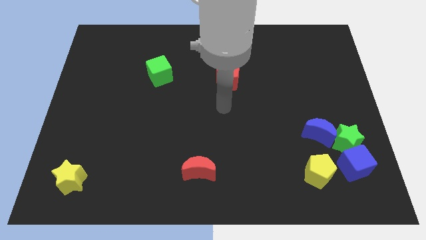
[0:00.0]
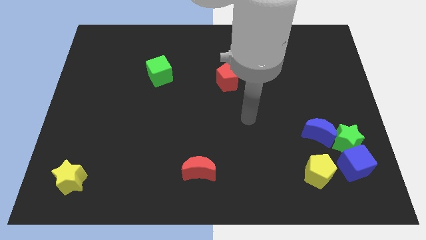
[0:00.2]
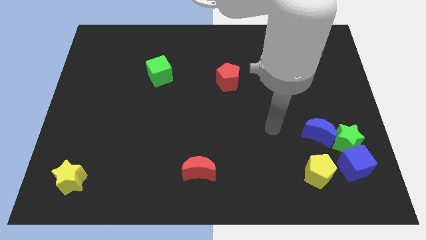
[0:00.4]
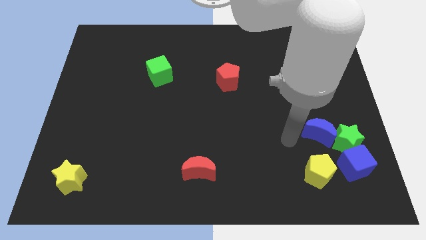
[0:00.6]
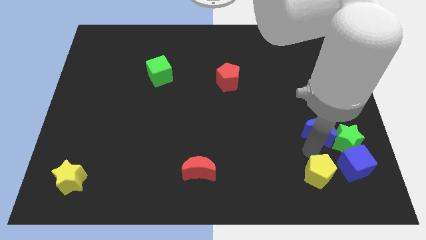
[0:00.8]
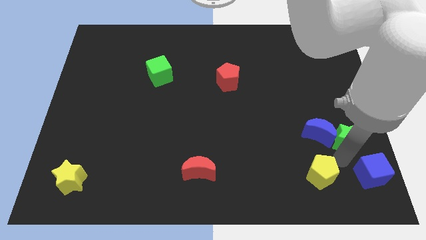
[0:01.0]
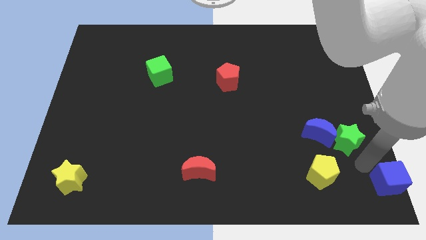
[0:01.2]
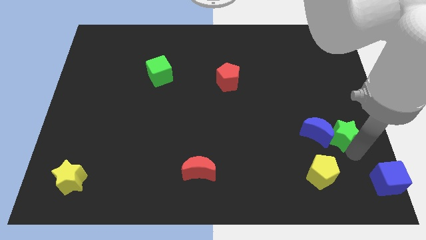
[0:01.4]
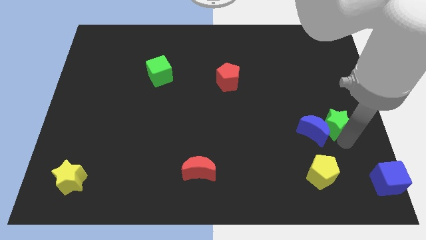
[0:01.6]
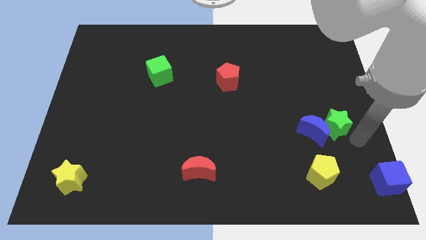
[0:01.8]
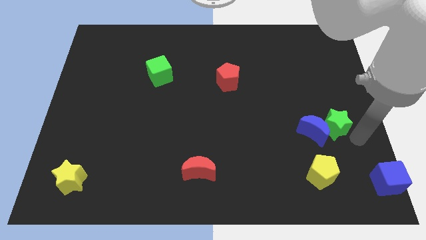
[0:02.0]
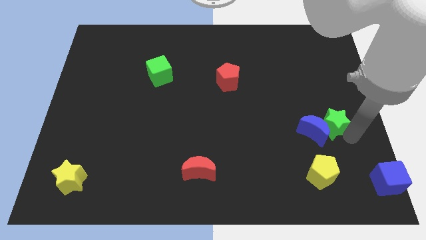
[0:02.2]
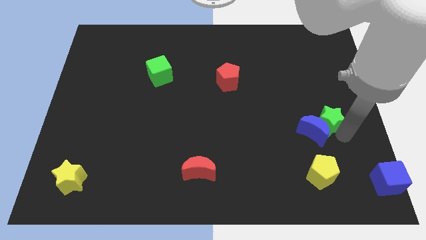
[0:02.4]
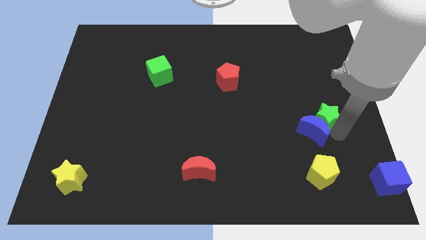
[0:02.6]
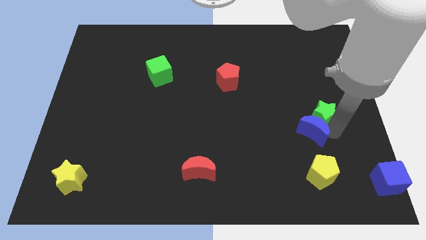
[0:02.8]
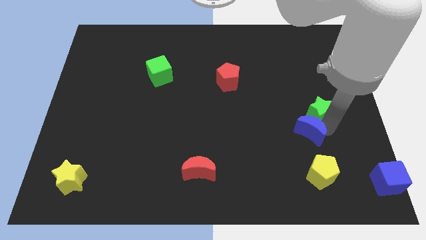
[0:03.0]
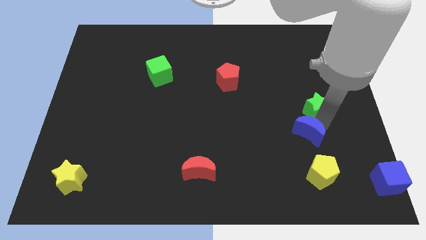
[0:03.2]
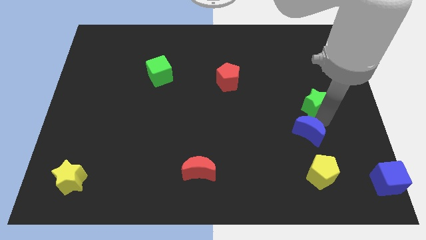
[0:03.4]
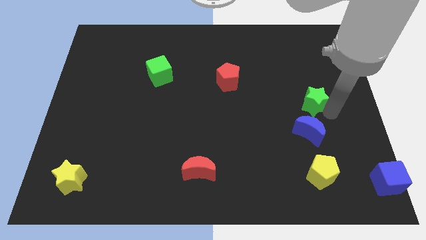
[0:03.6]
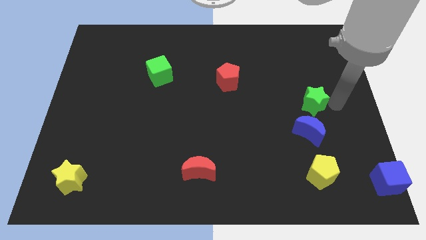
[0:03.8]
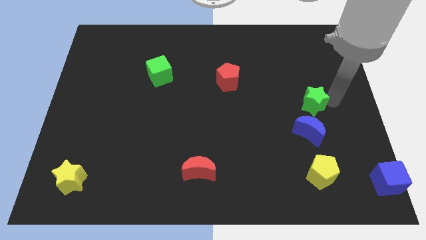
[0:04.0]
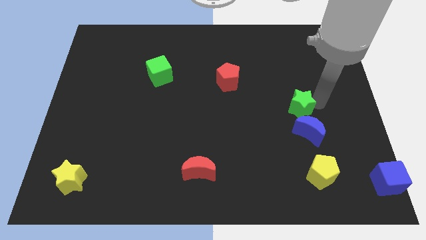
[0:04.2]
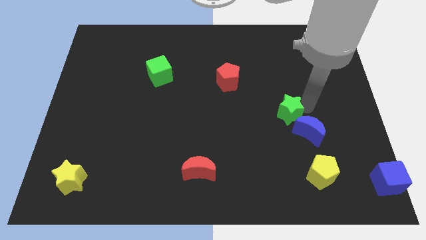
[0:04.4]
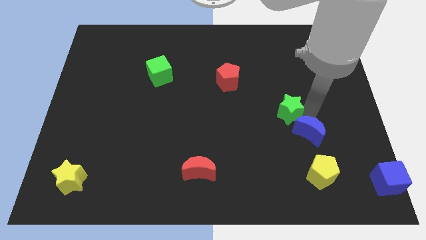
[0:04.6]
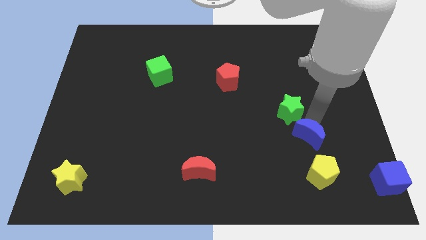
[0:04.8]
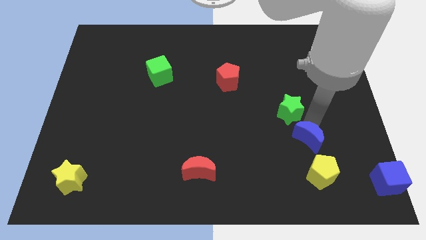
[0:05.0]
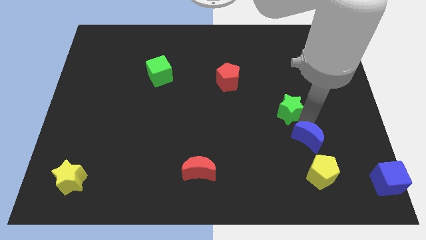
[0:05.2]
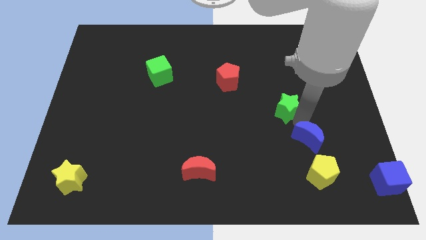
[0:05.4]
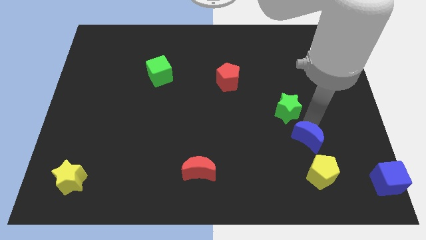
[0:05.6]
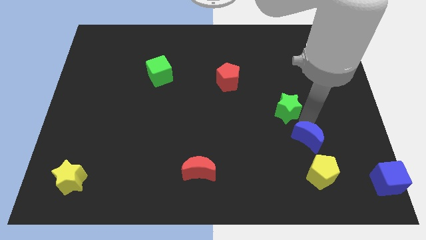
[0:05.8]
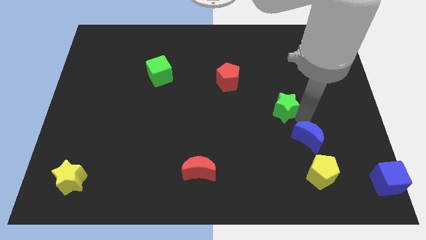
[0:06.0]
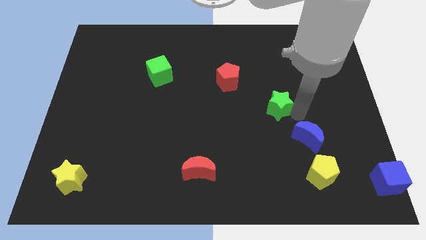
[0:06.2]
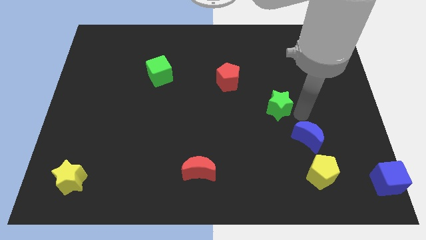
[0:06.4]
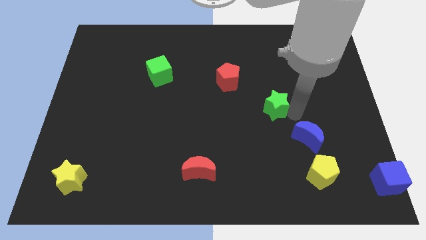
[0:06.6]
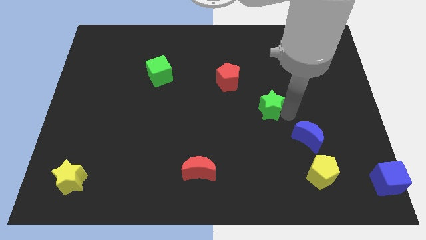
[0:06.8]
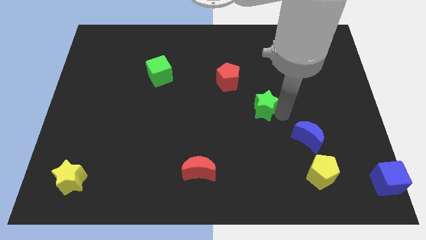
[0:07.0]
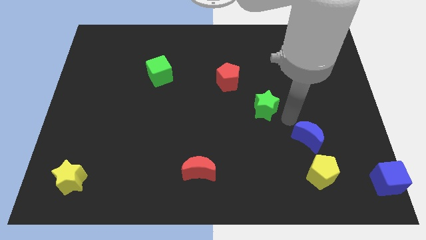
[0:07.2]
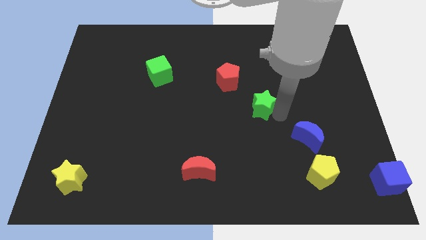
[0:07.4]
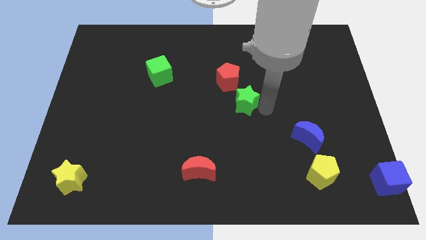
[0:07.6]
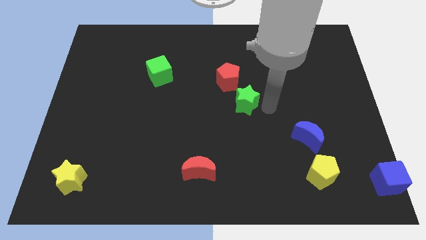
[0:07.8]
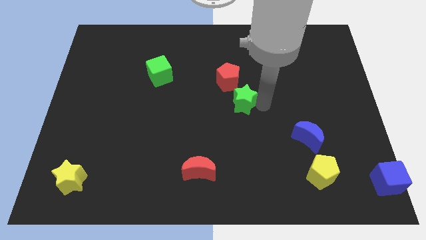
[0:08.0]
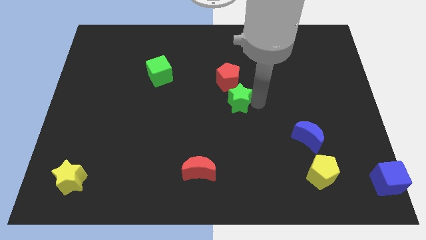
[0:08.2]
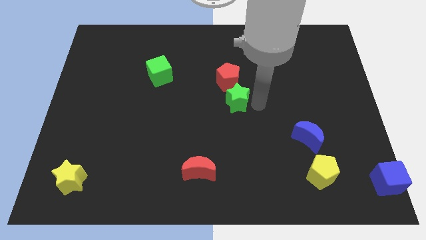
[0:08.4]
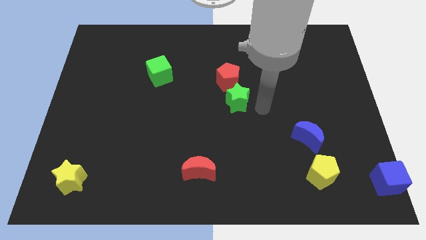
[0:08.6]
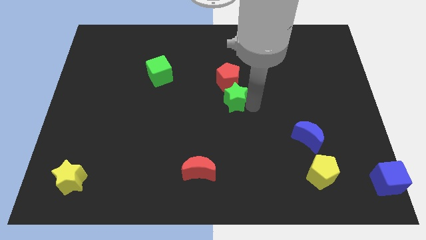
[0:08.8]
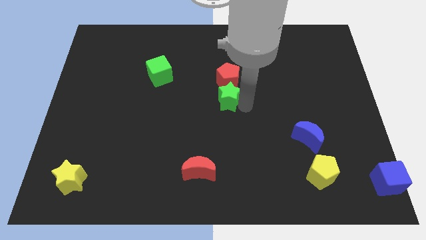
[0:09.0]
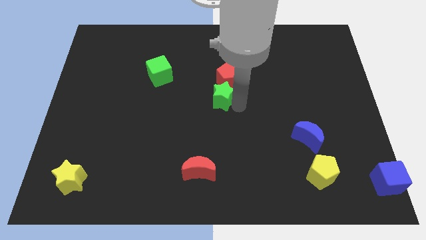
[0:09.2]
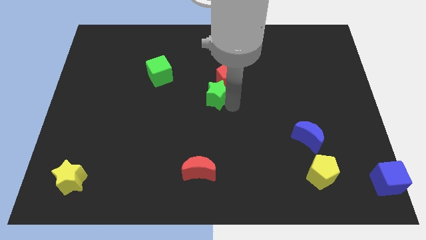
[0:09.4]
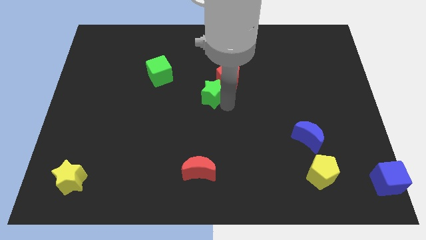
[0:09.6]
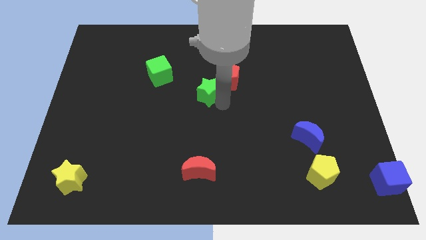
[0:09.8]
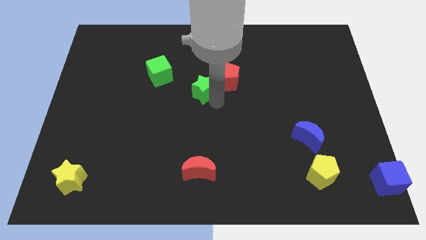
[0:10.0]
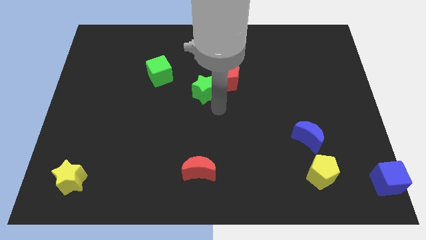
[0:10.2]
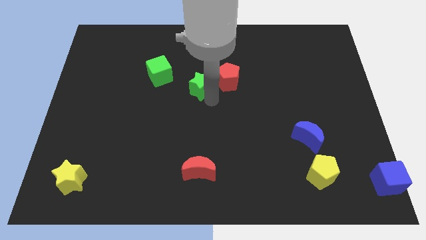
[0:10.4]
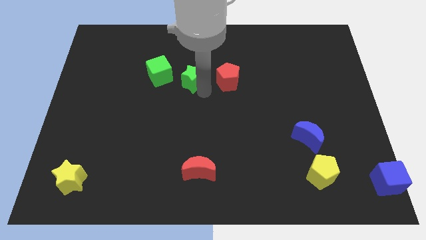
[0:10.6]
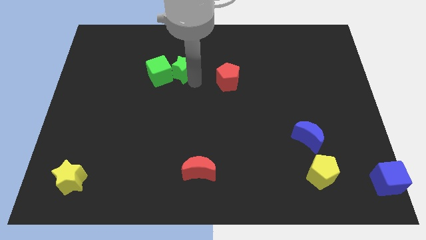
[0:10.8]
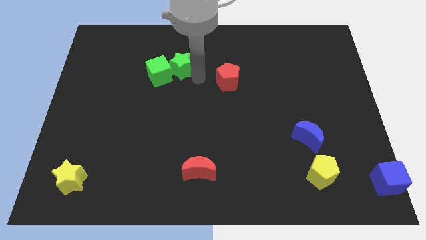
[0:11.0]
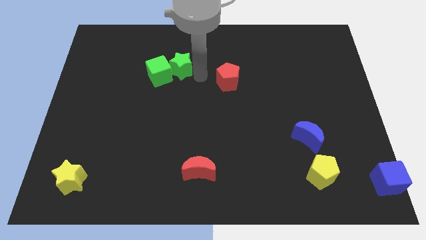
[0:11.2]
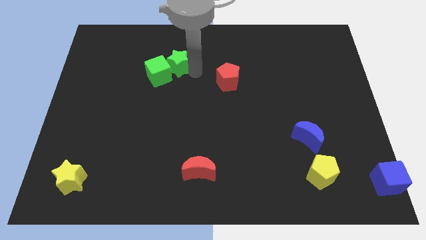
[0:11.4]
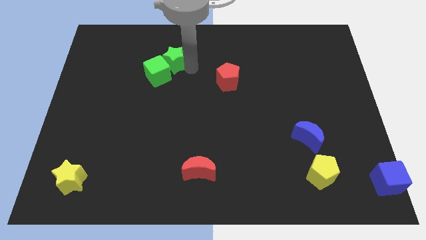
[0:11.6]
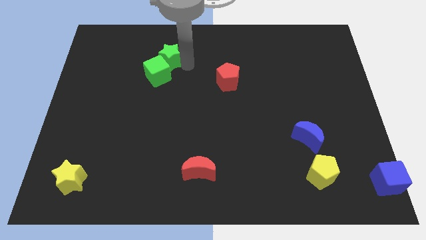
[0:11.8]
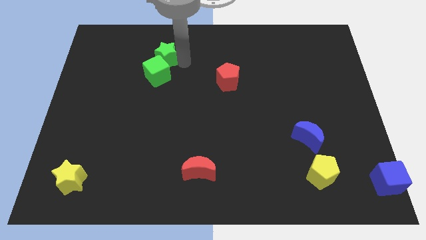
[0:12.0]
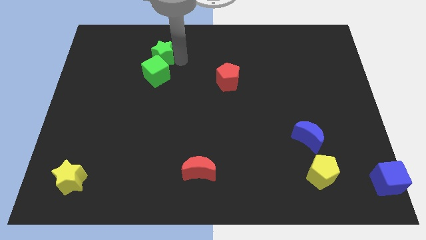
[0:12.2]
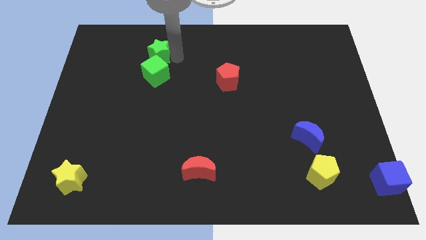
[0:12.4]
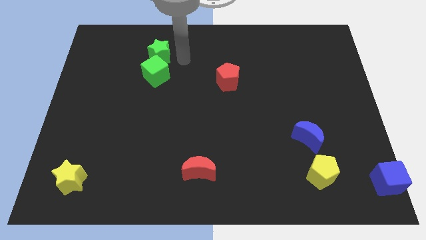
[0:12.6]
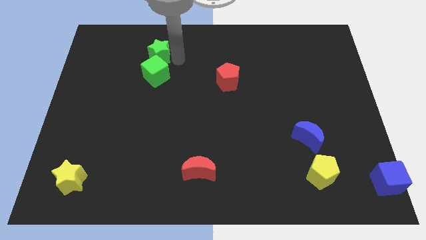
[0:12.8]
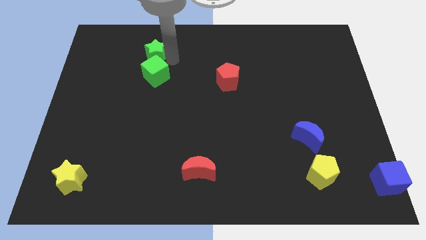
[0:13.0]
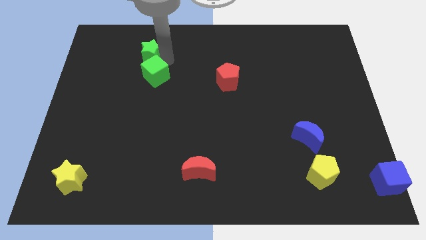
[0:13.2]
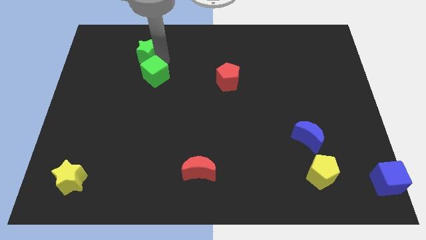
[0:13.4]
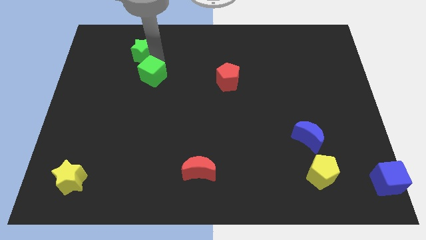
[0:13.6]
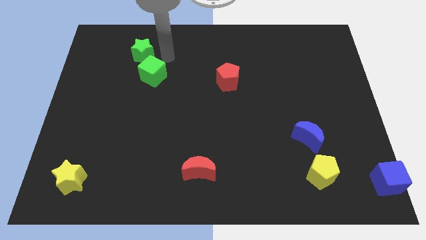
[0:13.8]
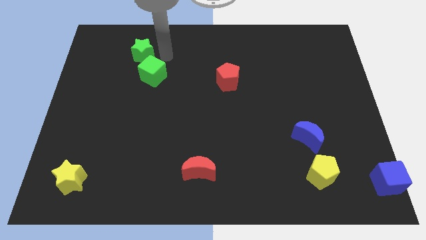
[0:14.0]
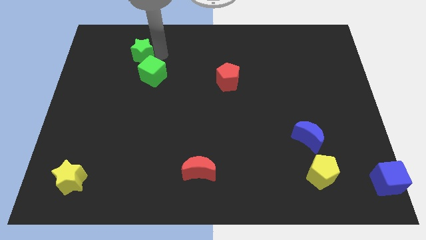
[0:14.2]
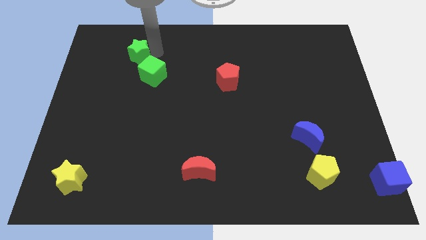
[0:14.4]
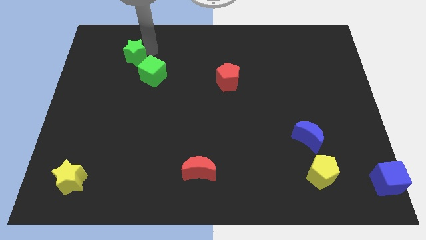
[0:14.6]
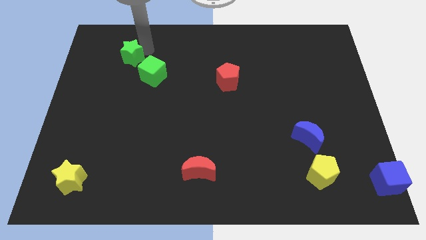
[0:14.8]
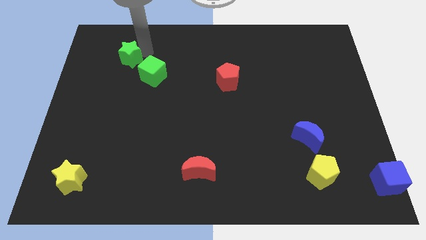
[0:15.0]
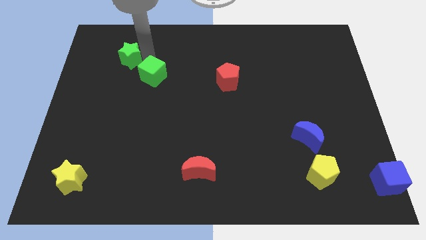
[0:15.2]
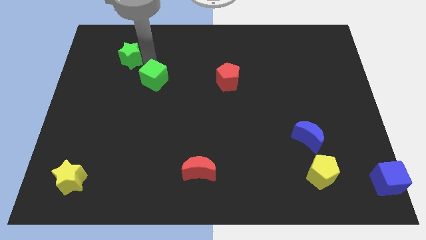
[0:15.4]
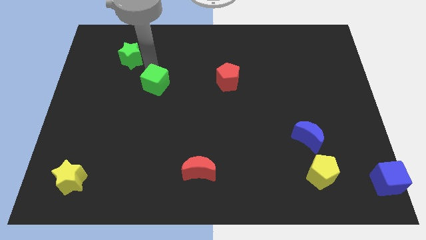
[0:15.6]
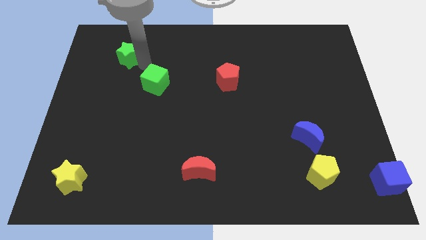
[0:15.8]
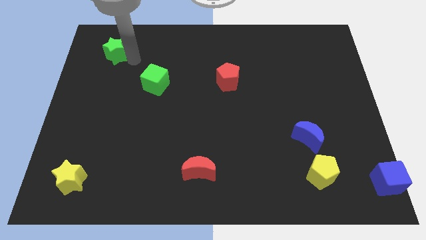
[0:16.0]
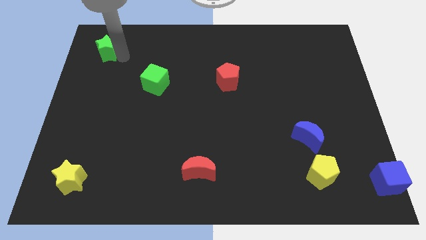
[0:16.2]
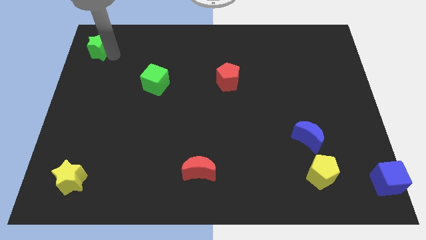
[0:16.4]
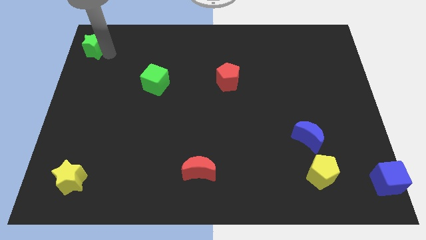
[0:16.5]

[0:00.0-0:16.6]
push the green star to the top left of the board
